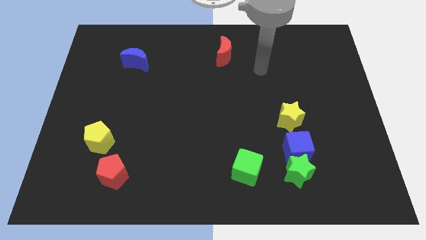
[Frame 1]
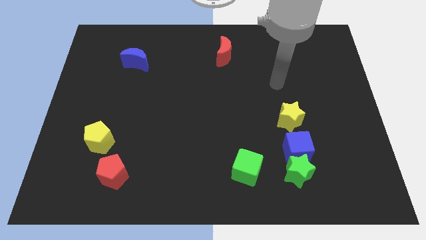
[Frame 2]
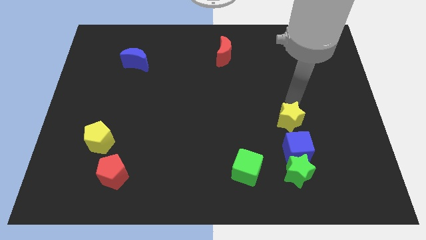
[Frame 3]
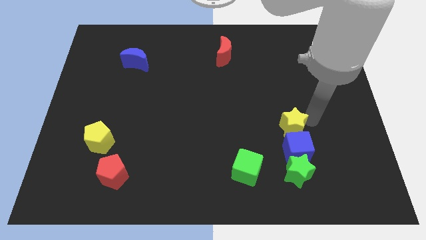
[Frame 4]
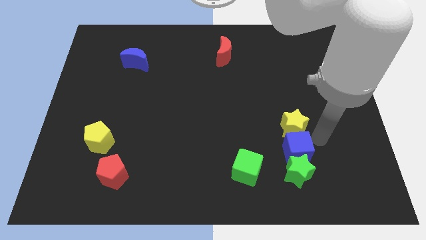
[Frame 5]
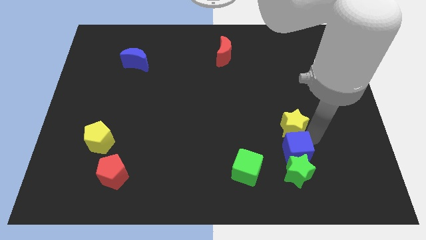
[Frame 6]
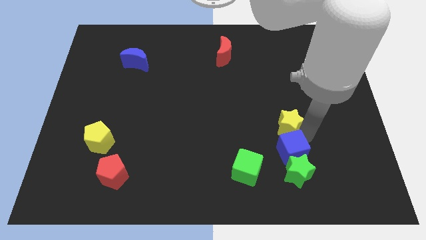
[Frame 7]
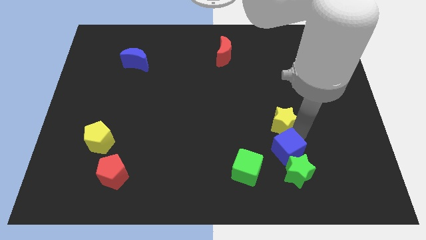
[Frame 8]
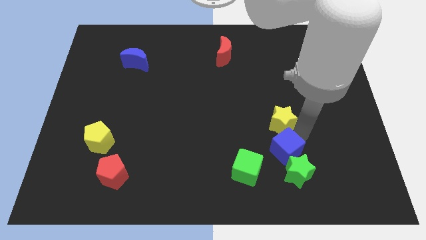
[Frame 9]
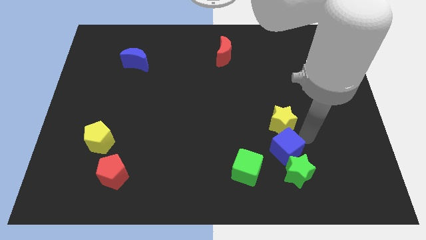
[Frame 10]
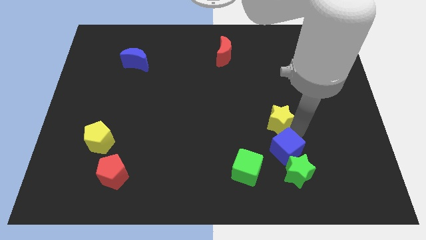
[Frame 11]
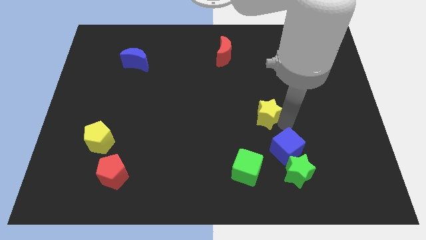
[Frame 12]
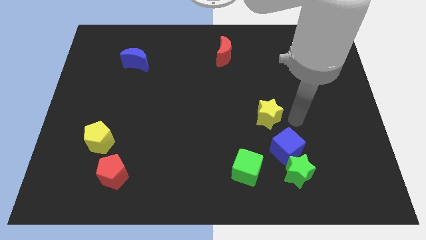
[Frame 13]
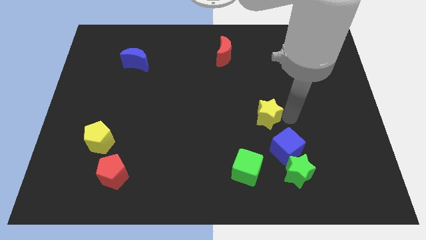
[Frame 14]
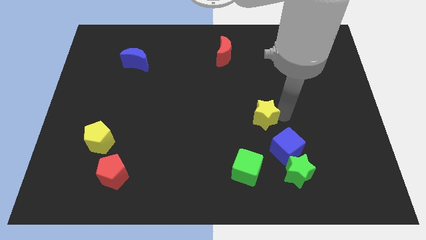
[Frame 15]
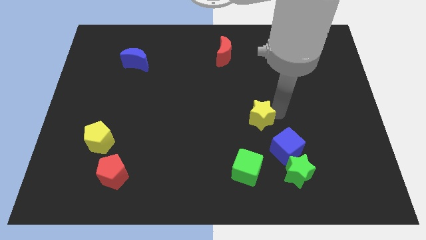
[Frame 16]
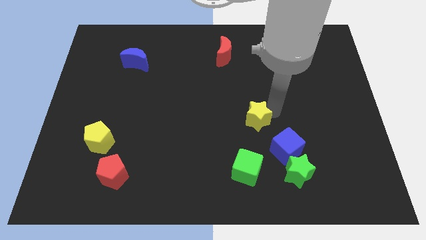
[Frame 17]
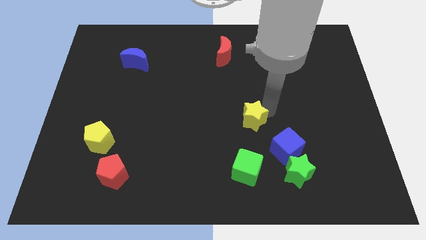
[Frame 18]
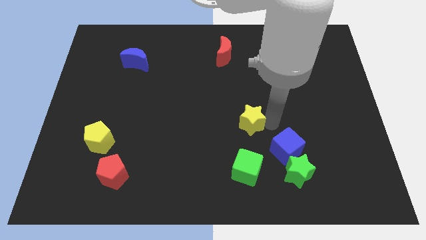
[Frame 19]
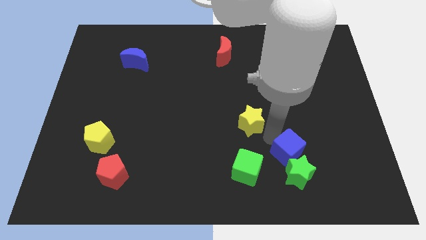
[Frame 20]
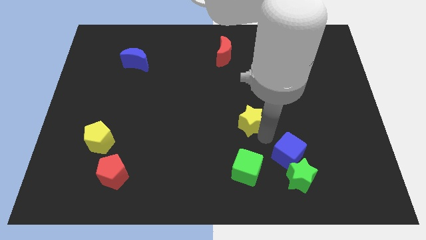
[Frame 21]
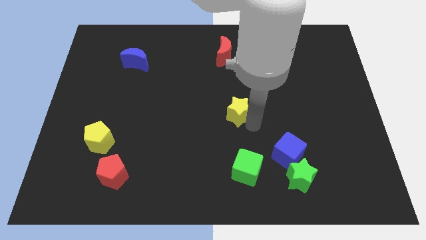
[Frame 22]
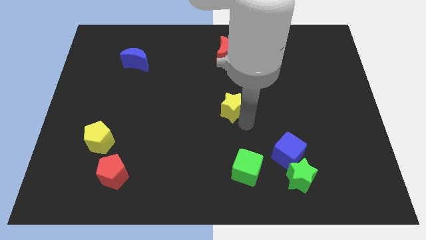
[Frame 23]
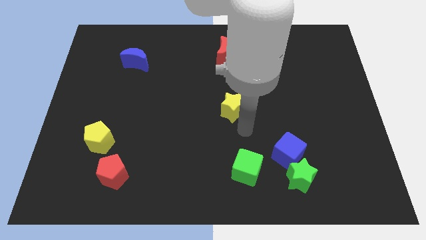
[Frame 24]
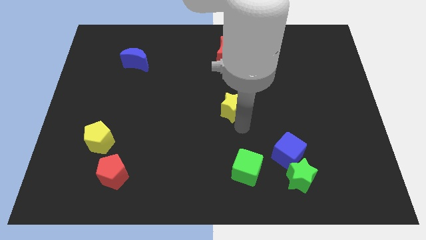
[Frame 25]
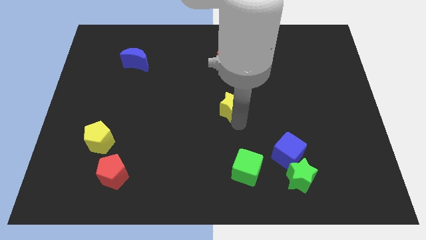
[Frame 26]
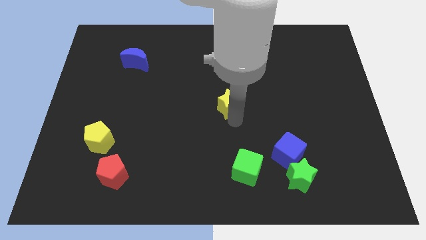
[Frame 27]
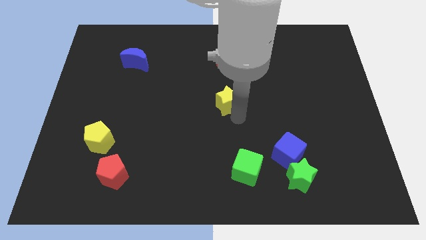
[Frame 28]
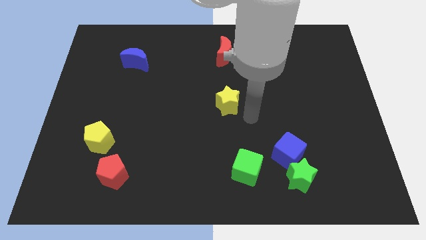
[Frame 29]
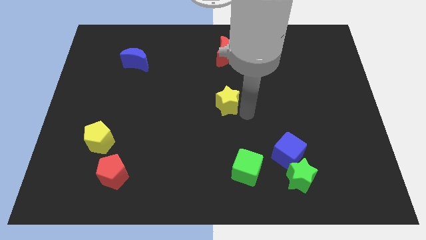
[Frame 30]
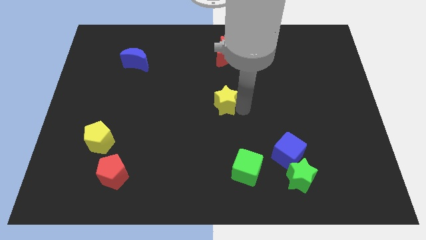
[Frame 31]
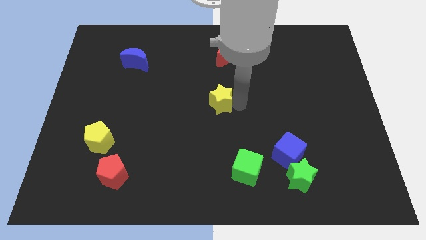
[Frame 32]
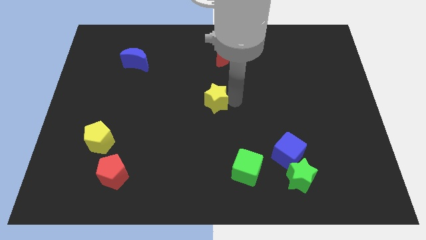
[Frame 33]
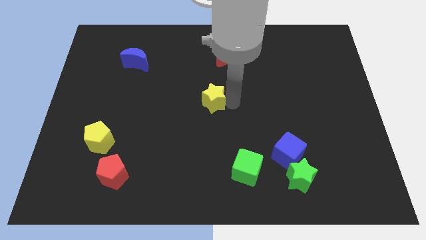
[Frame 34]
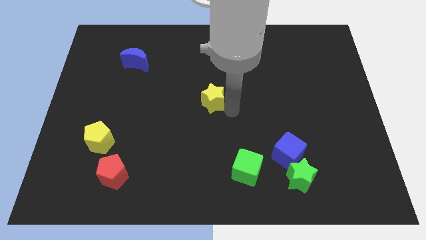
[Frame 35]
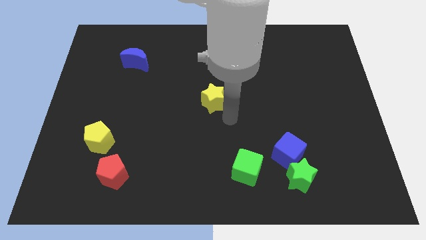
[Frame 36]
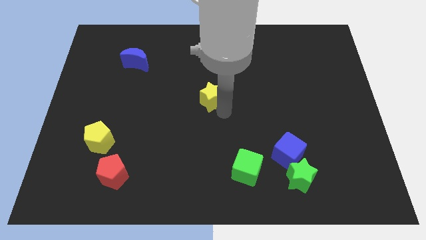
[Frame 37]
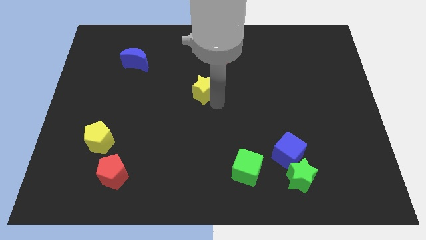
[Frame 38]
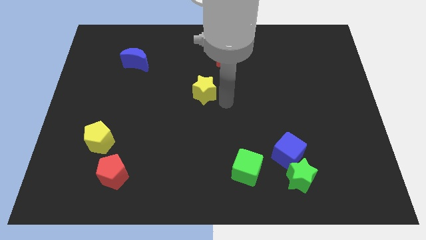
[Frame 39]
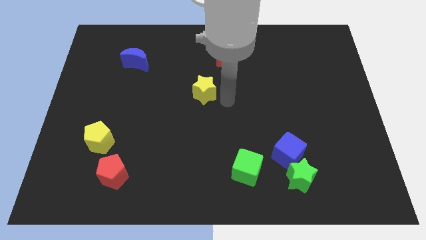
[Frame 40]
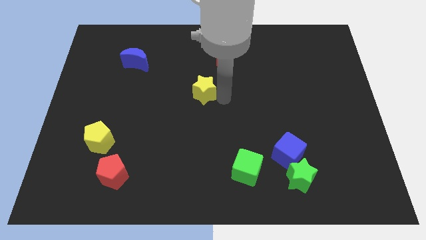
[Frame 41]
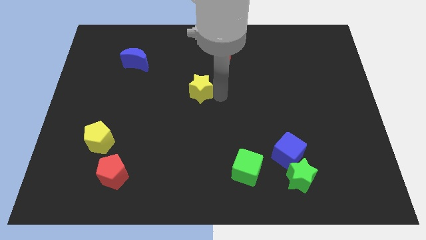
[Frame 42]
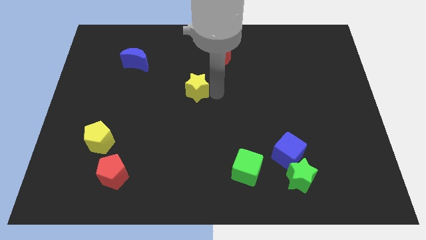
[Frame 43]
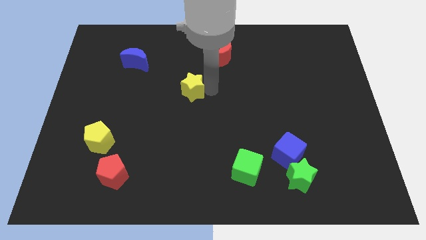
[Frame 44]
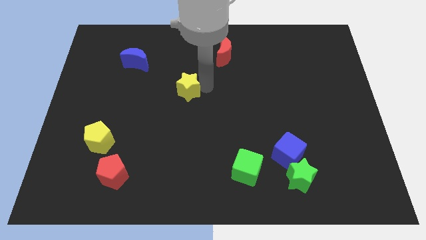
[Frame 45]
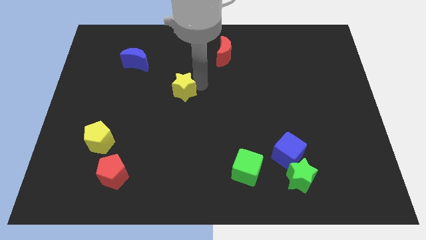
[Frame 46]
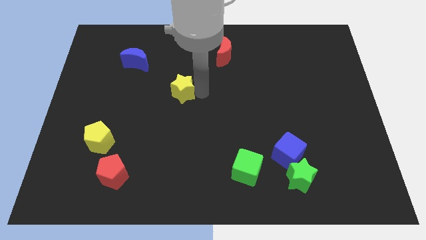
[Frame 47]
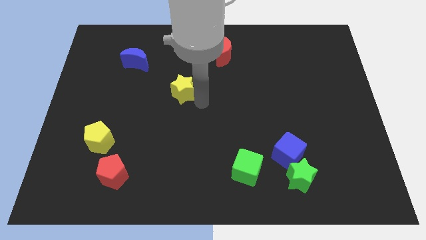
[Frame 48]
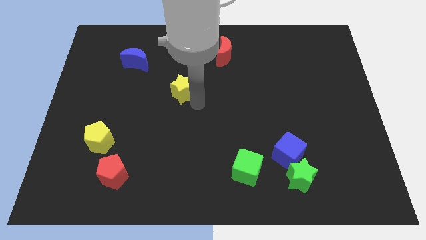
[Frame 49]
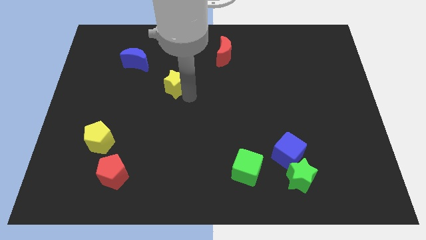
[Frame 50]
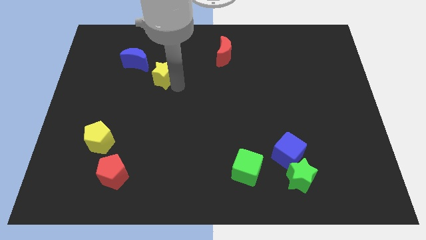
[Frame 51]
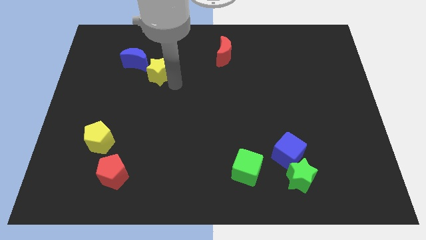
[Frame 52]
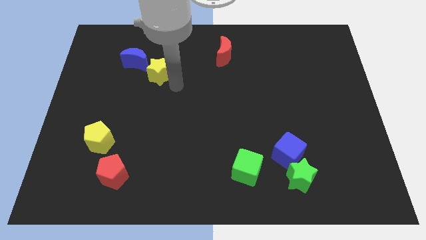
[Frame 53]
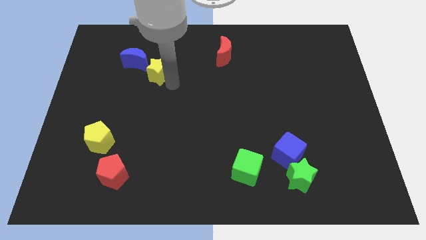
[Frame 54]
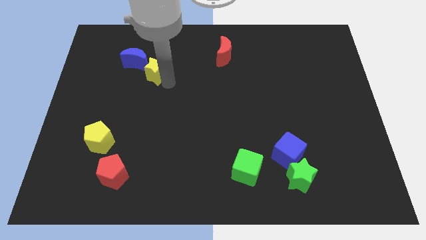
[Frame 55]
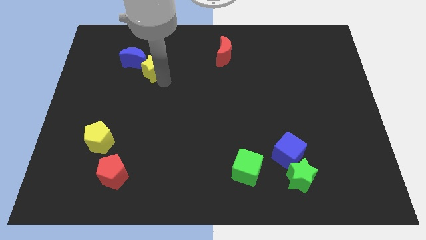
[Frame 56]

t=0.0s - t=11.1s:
put the yellow star towards the blue moon
